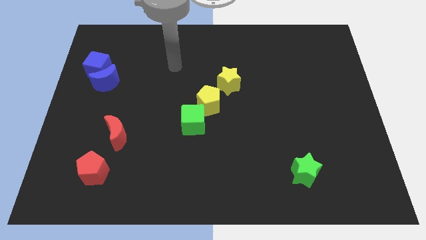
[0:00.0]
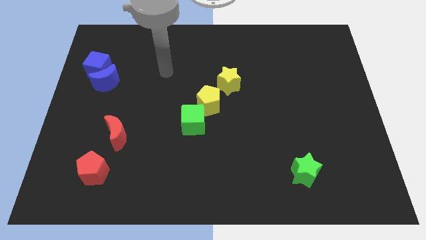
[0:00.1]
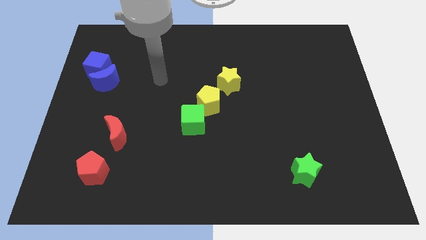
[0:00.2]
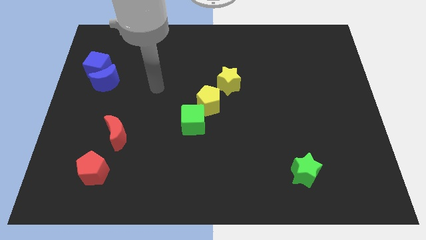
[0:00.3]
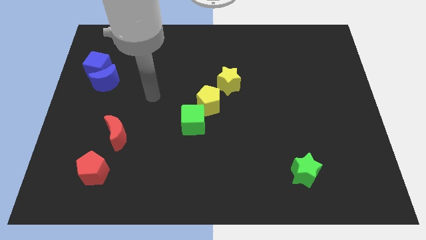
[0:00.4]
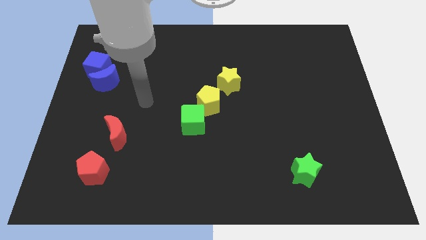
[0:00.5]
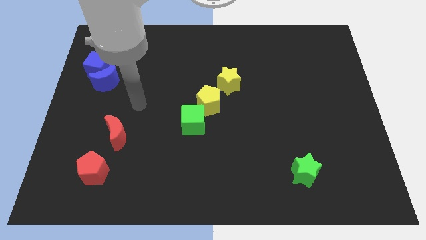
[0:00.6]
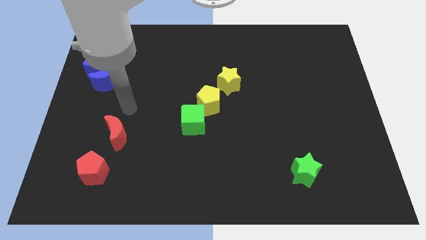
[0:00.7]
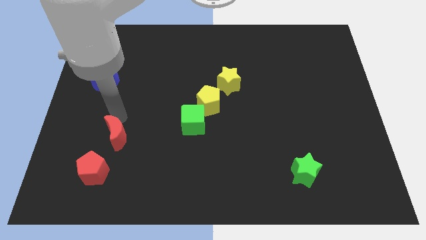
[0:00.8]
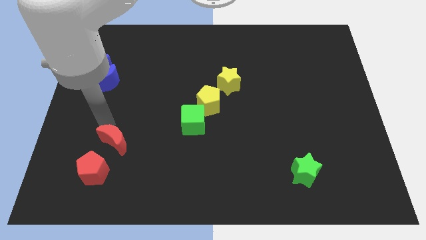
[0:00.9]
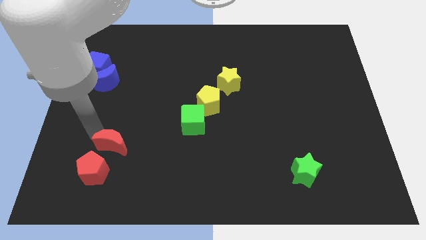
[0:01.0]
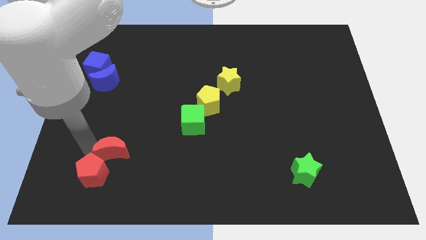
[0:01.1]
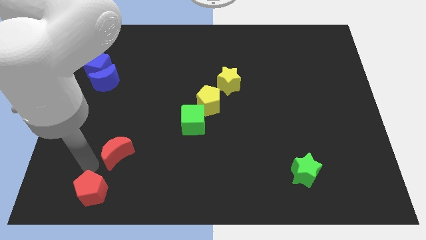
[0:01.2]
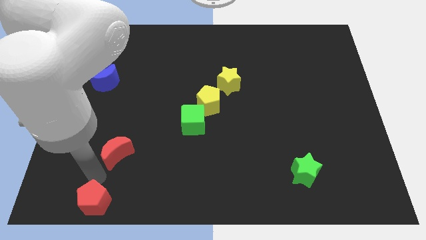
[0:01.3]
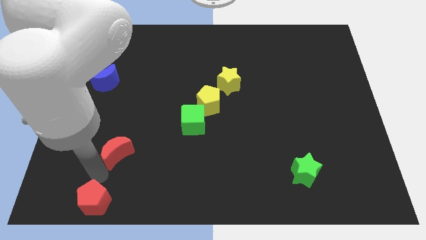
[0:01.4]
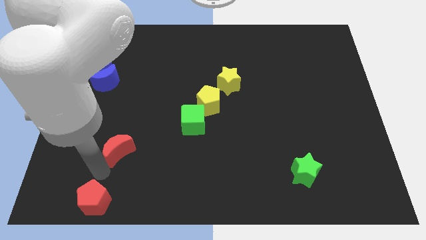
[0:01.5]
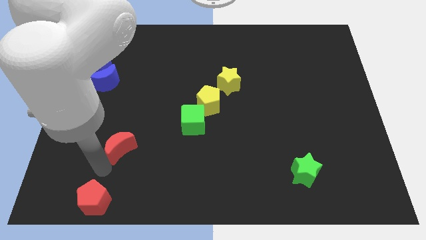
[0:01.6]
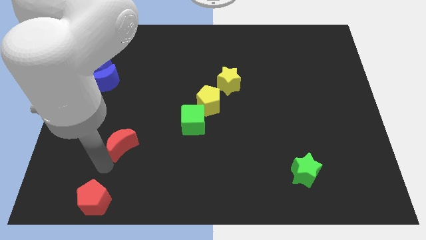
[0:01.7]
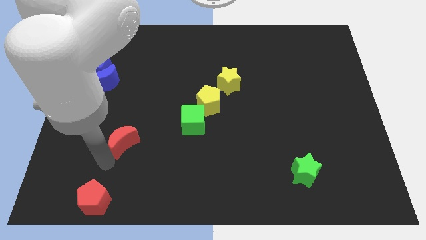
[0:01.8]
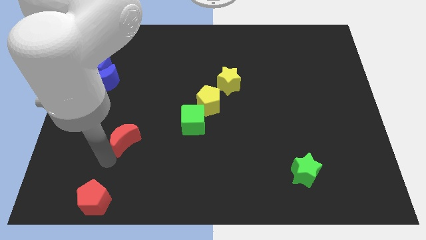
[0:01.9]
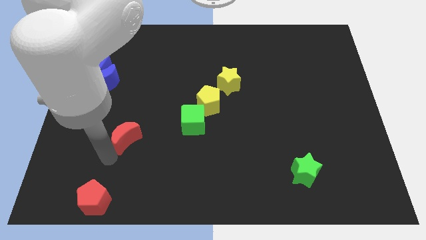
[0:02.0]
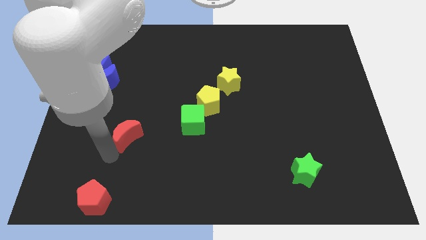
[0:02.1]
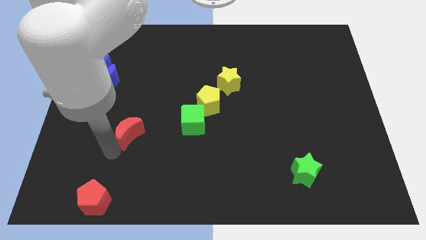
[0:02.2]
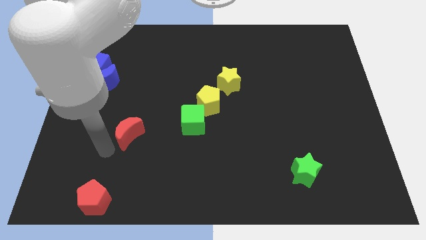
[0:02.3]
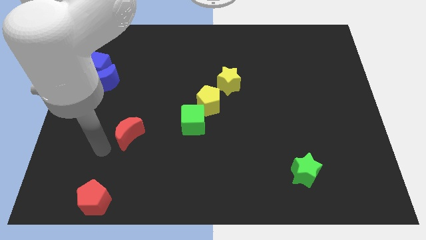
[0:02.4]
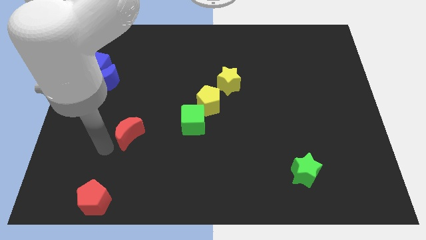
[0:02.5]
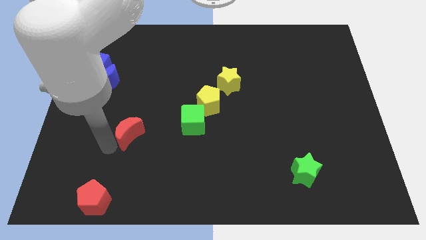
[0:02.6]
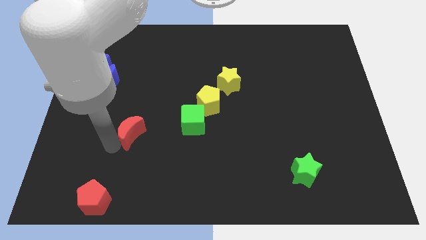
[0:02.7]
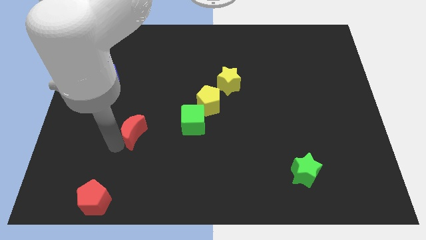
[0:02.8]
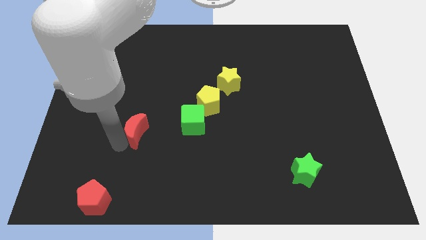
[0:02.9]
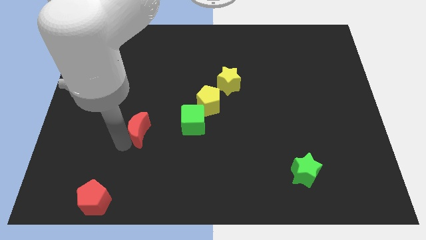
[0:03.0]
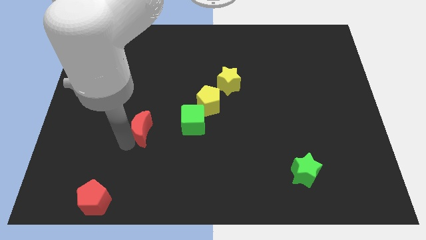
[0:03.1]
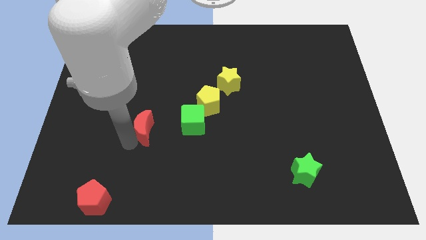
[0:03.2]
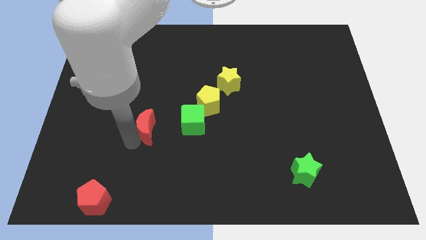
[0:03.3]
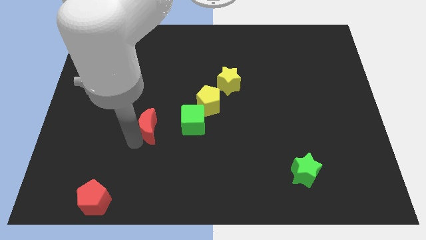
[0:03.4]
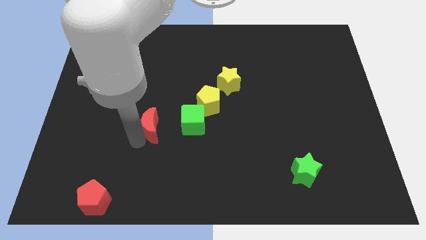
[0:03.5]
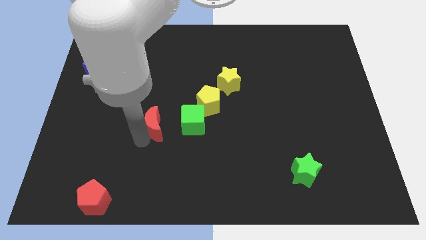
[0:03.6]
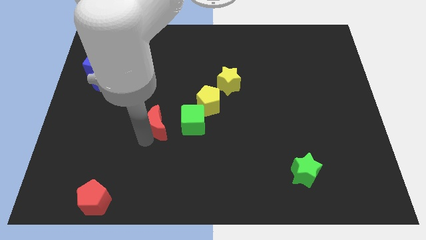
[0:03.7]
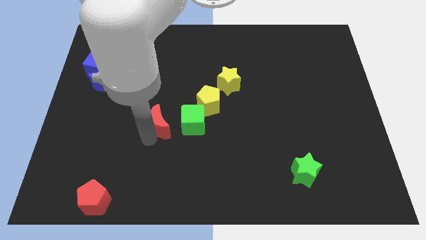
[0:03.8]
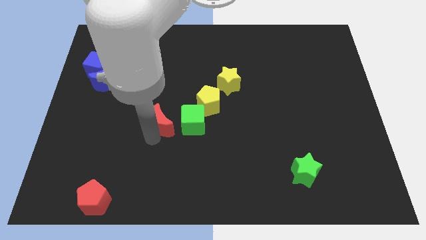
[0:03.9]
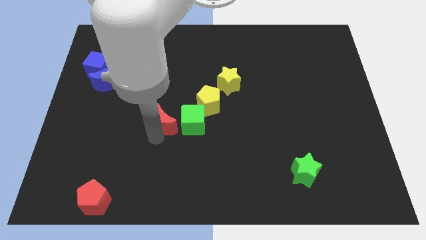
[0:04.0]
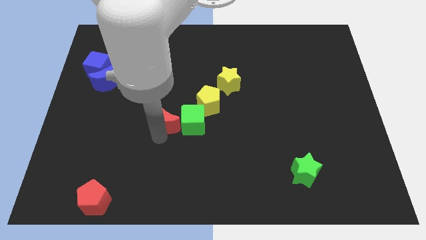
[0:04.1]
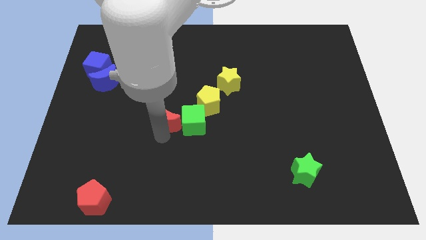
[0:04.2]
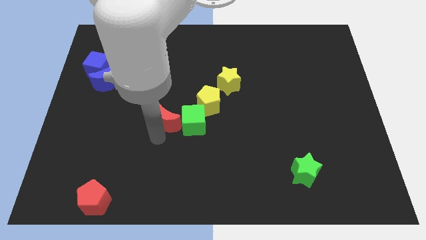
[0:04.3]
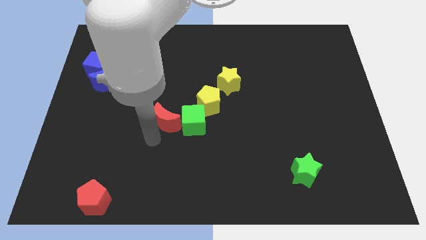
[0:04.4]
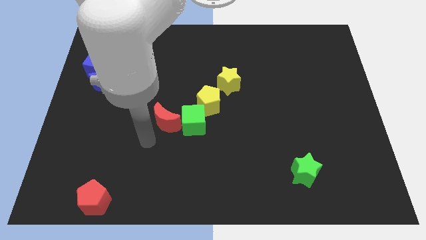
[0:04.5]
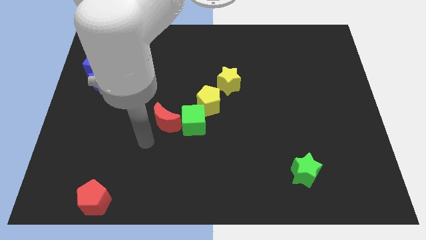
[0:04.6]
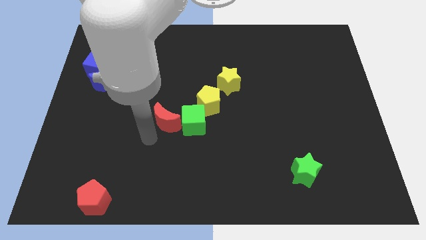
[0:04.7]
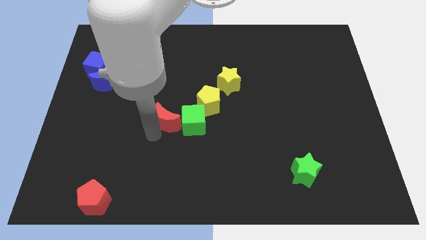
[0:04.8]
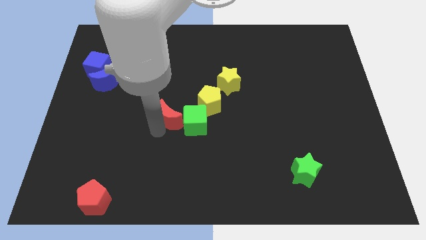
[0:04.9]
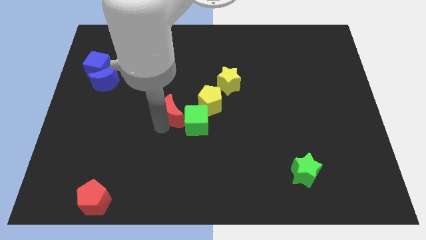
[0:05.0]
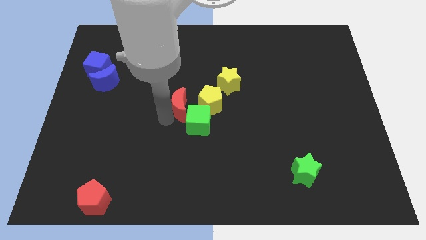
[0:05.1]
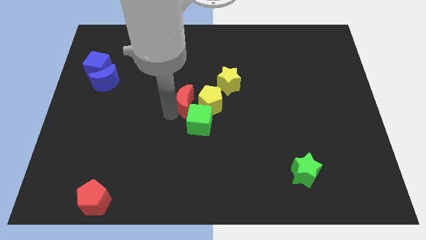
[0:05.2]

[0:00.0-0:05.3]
slide the red moon to the yellow pentagon

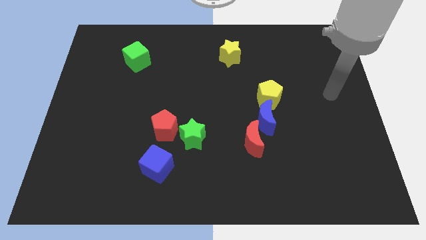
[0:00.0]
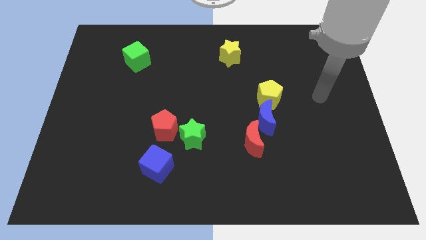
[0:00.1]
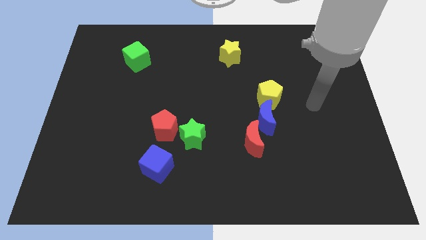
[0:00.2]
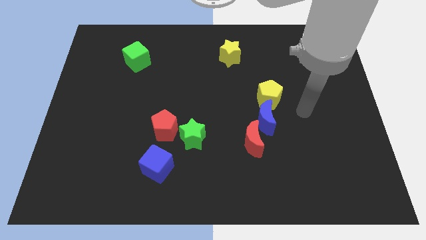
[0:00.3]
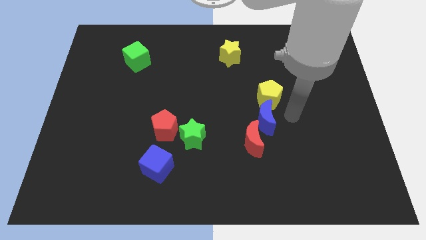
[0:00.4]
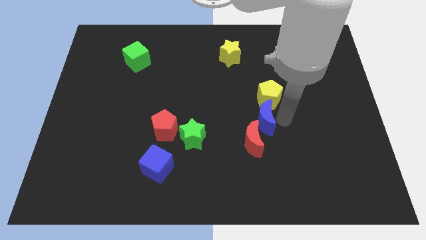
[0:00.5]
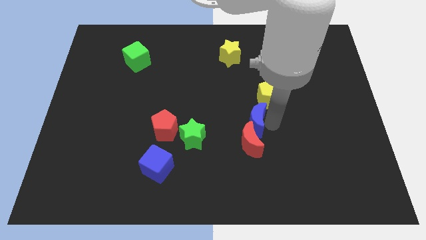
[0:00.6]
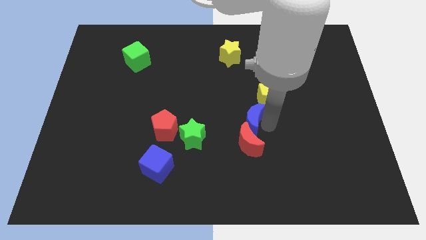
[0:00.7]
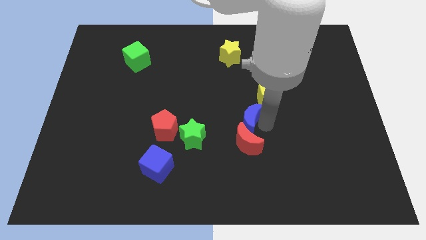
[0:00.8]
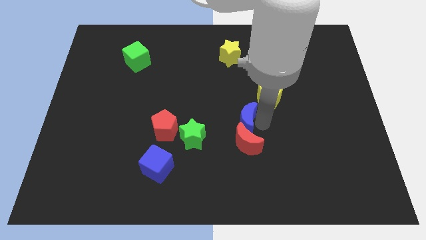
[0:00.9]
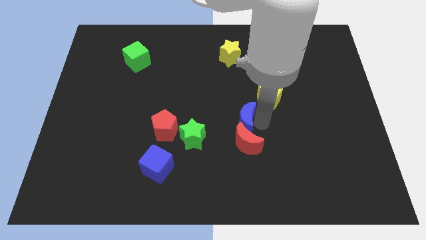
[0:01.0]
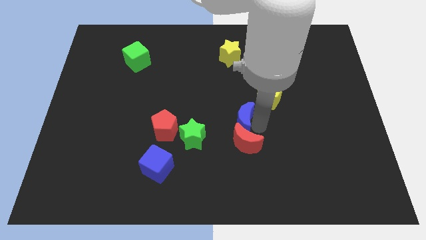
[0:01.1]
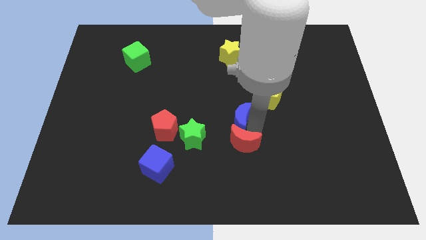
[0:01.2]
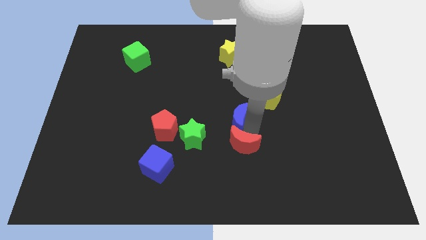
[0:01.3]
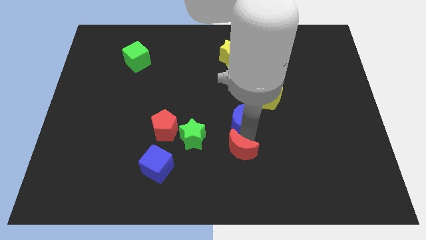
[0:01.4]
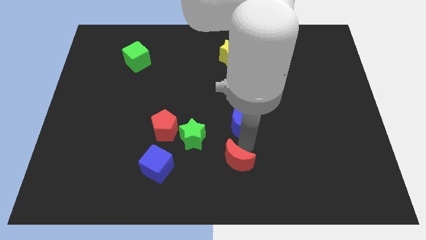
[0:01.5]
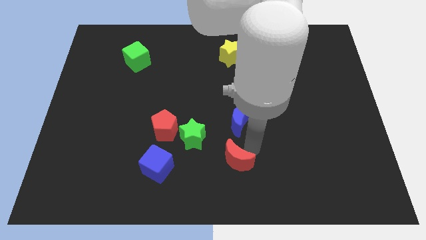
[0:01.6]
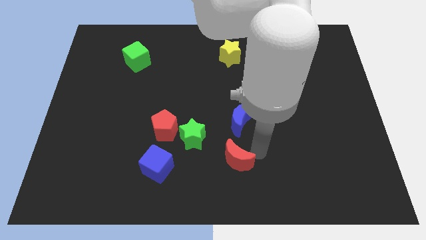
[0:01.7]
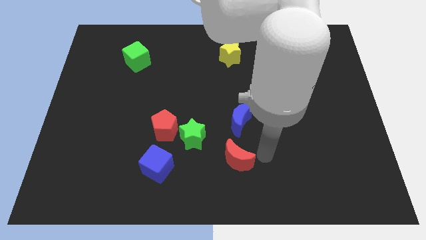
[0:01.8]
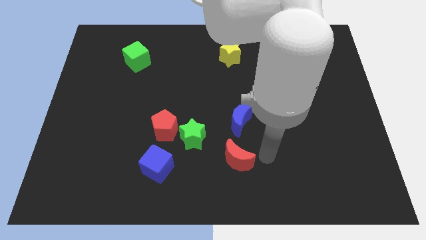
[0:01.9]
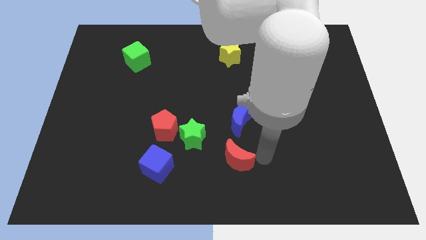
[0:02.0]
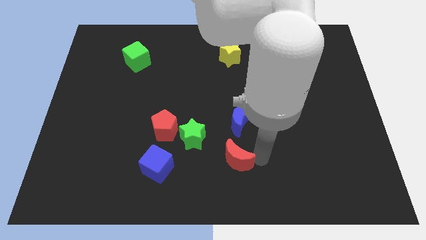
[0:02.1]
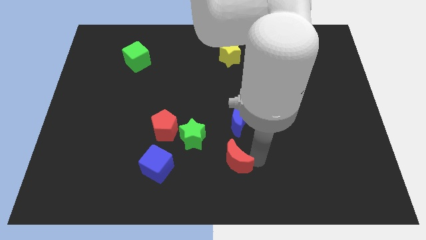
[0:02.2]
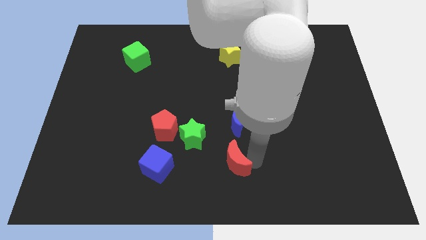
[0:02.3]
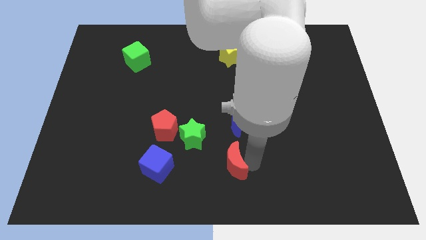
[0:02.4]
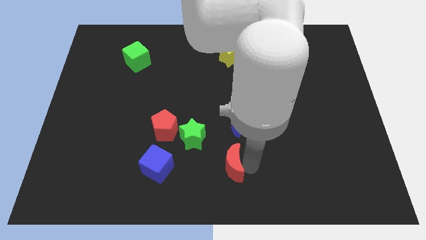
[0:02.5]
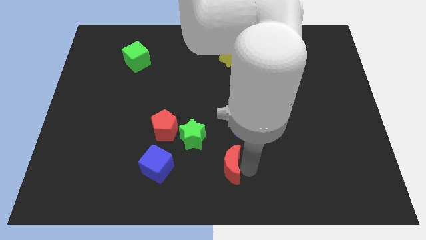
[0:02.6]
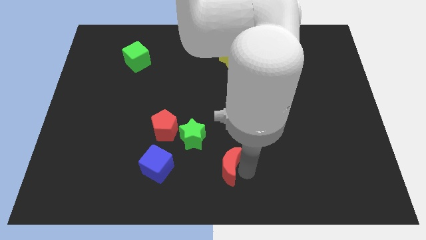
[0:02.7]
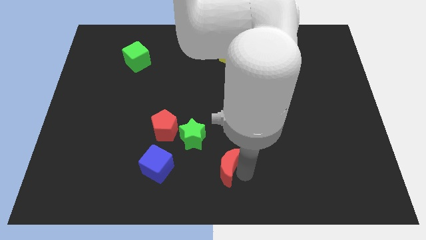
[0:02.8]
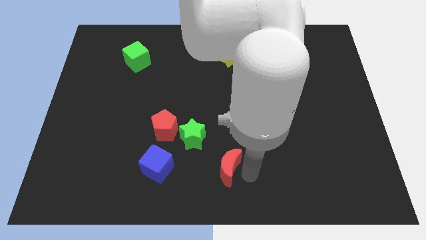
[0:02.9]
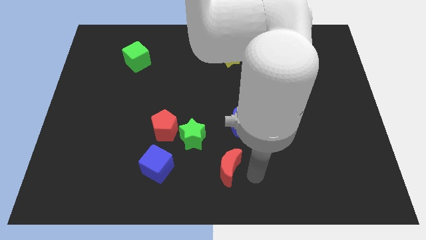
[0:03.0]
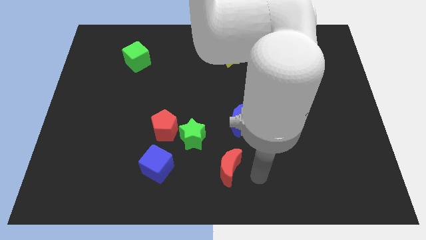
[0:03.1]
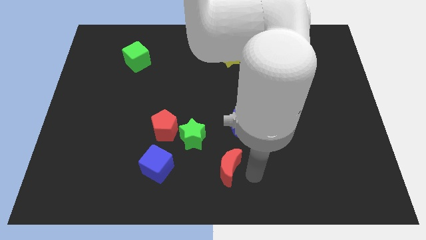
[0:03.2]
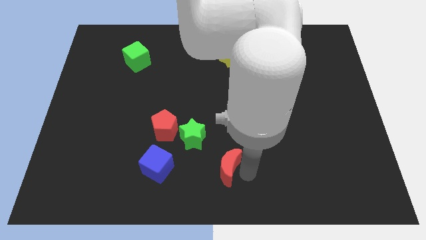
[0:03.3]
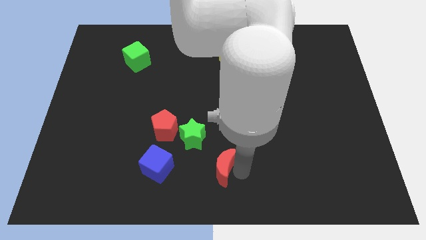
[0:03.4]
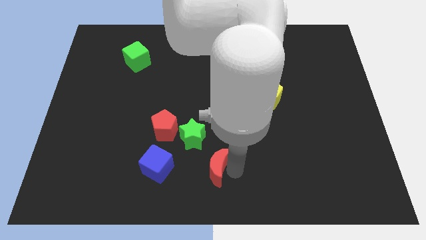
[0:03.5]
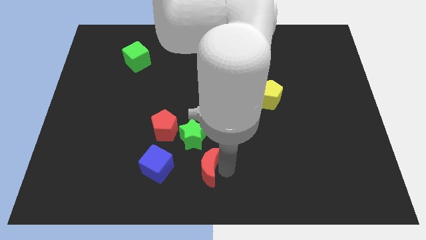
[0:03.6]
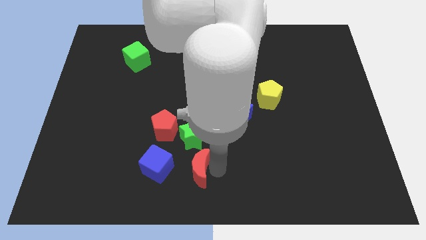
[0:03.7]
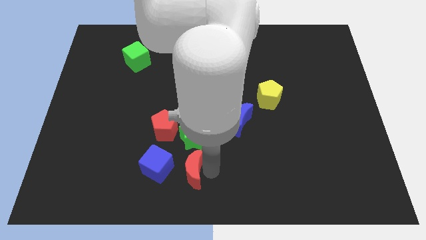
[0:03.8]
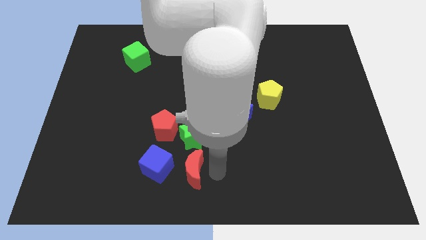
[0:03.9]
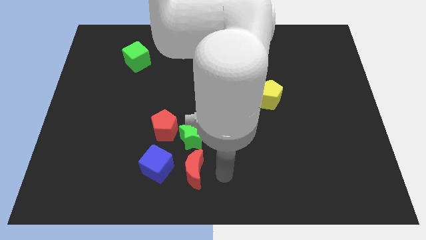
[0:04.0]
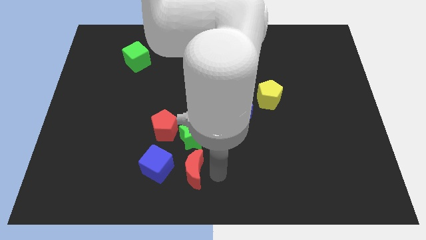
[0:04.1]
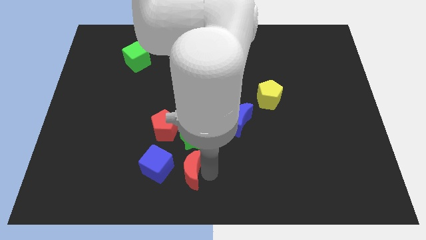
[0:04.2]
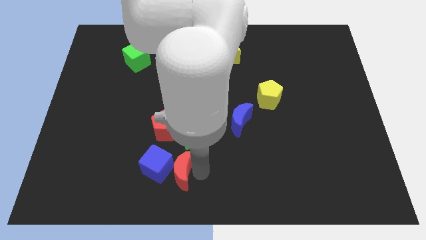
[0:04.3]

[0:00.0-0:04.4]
move the red moon towards the blue cube
